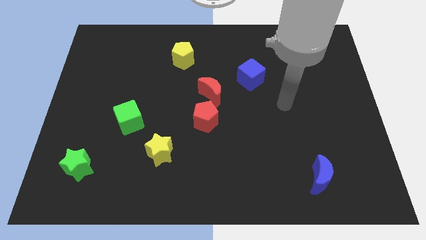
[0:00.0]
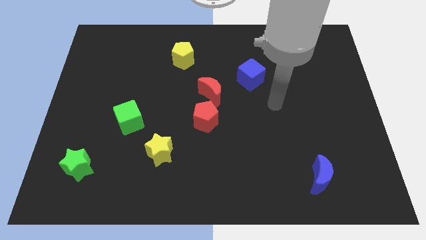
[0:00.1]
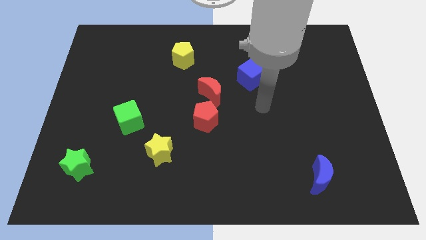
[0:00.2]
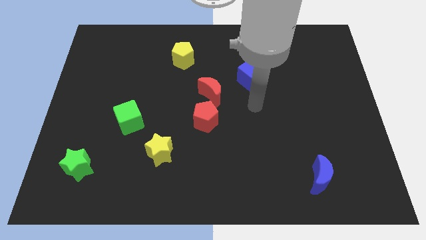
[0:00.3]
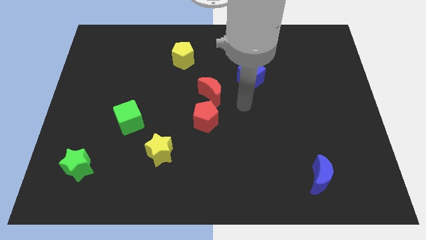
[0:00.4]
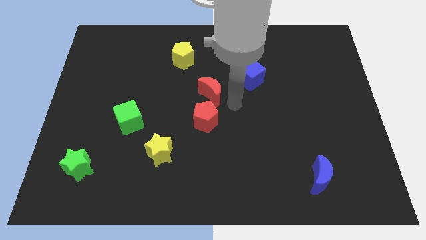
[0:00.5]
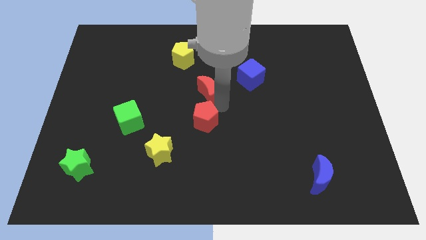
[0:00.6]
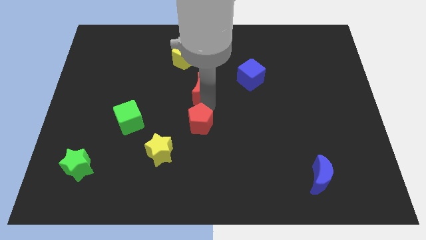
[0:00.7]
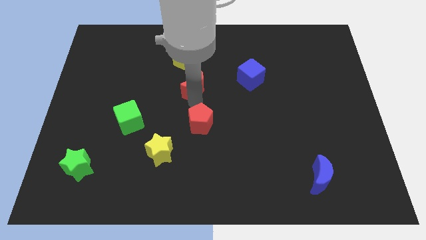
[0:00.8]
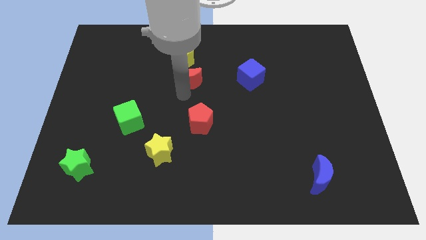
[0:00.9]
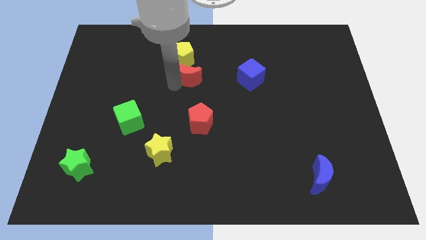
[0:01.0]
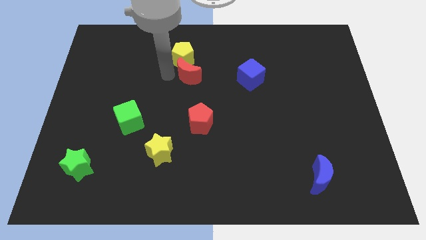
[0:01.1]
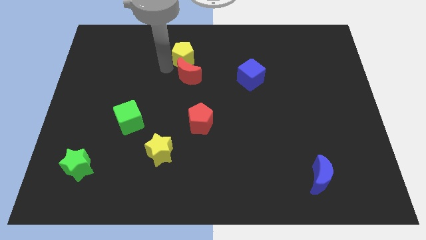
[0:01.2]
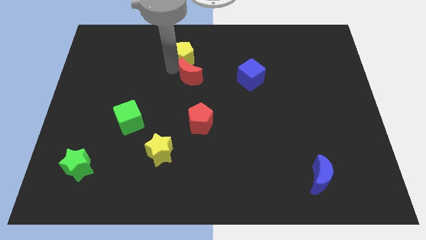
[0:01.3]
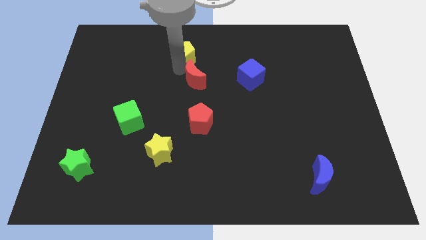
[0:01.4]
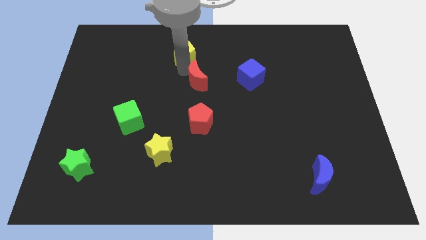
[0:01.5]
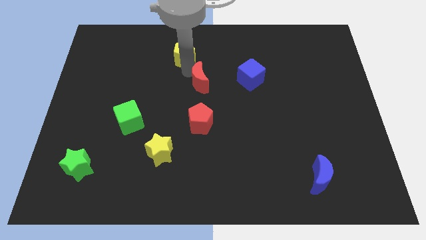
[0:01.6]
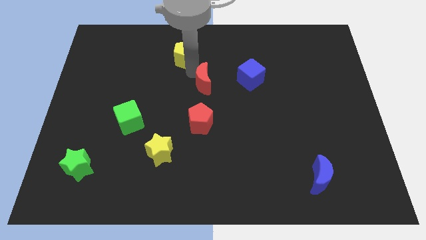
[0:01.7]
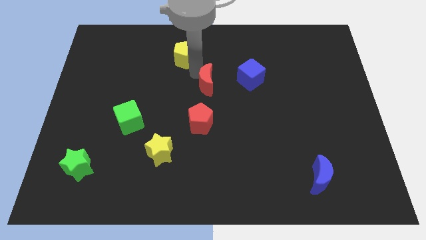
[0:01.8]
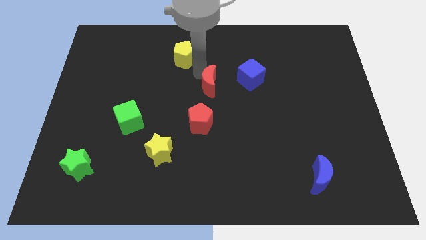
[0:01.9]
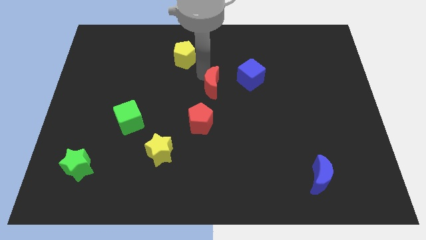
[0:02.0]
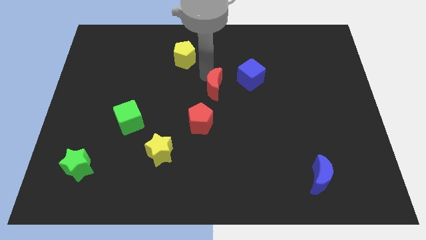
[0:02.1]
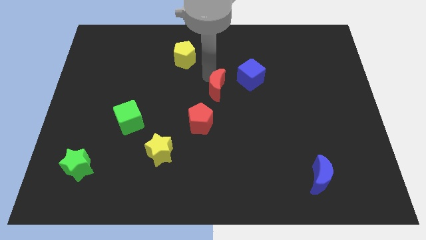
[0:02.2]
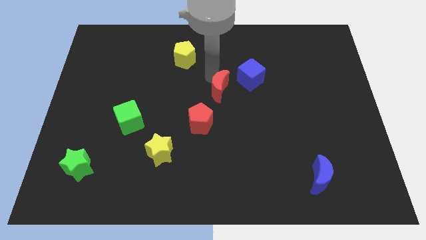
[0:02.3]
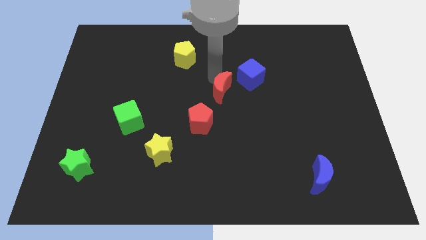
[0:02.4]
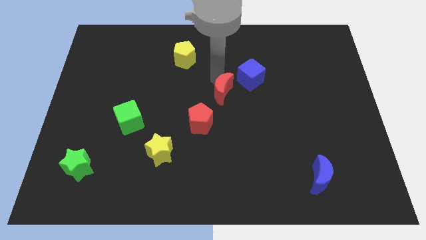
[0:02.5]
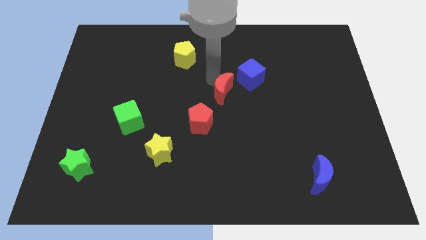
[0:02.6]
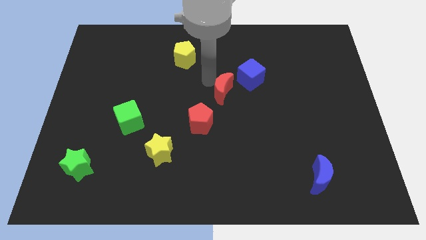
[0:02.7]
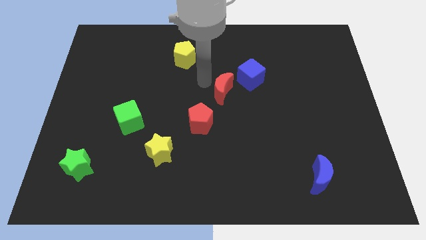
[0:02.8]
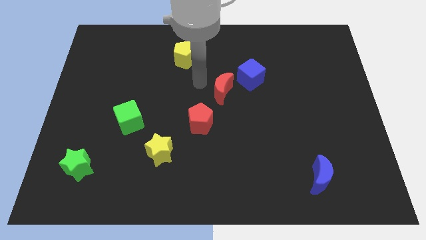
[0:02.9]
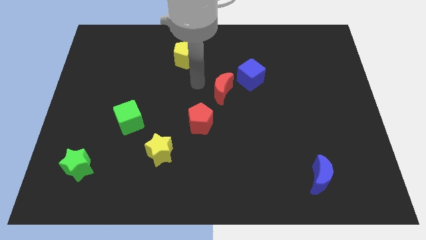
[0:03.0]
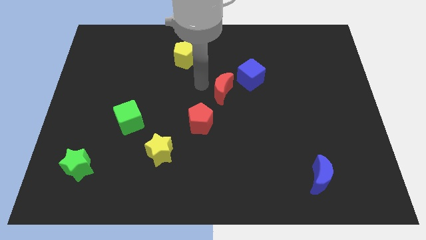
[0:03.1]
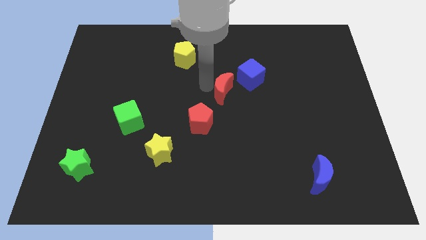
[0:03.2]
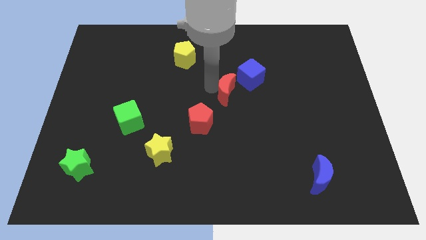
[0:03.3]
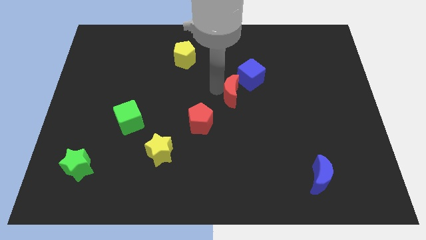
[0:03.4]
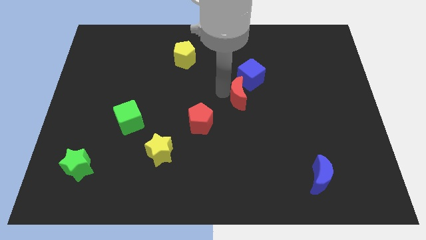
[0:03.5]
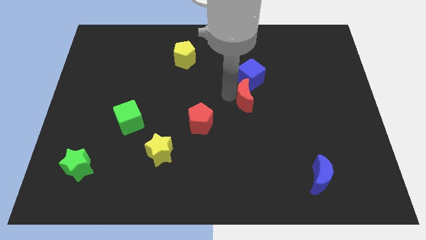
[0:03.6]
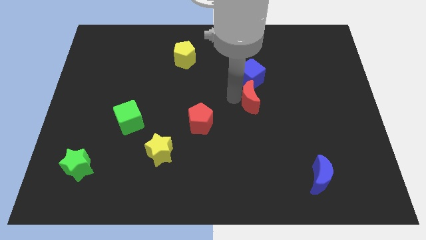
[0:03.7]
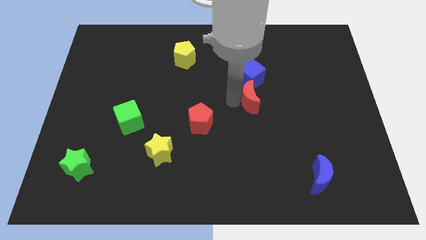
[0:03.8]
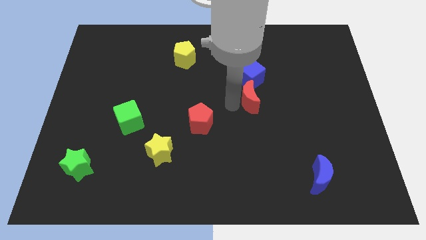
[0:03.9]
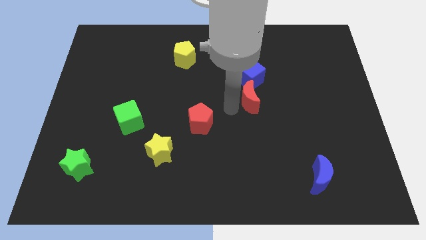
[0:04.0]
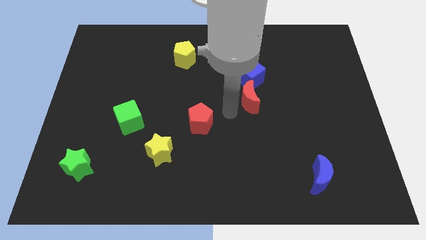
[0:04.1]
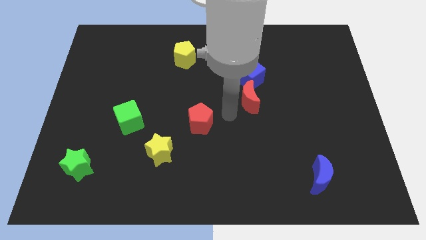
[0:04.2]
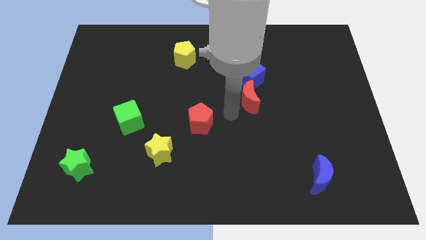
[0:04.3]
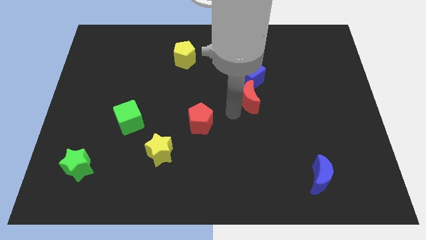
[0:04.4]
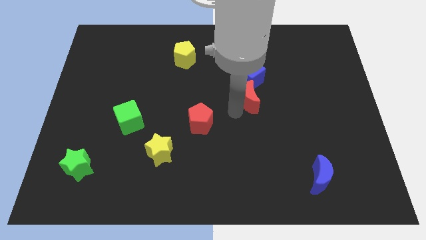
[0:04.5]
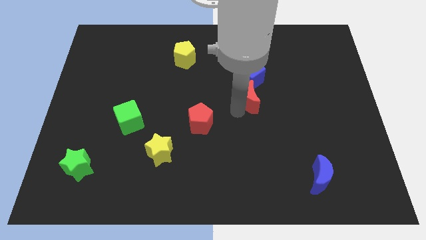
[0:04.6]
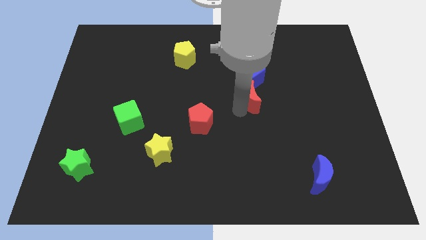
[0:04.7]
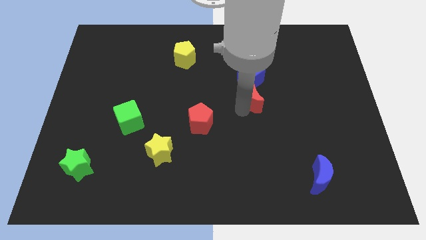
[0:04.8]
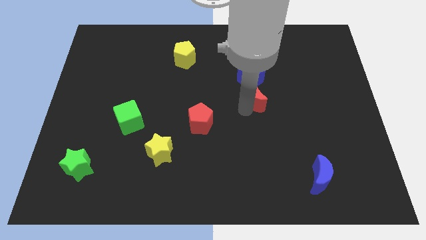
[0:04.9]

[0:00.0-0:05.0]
push the red moon to the bottom right of the blue cube

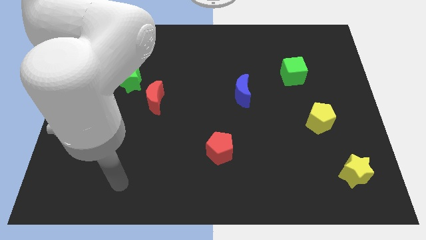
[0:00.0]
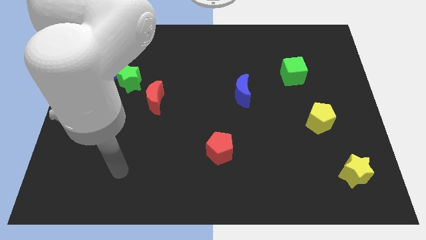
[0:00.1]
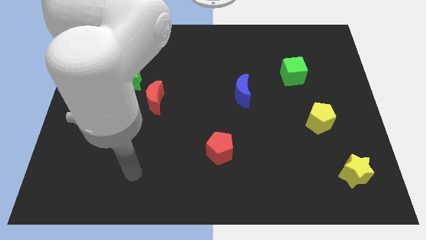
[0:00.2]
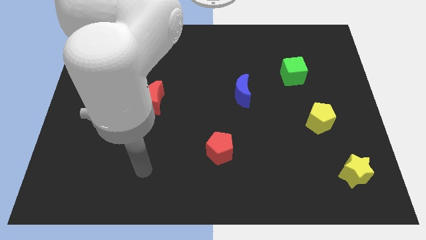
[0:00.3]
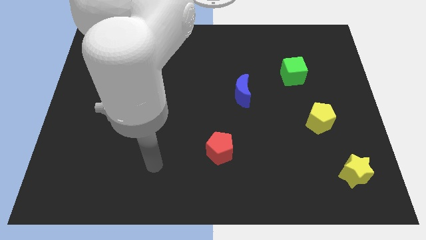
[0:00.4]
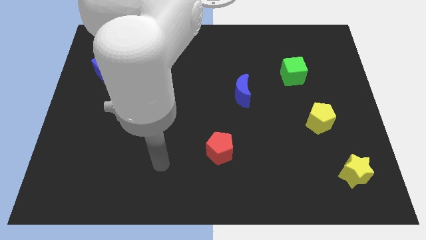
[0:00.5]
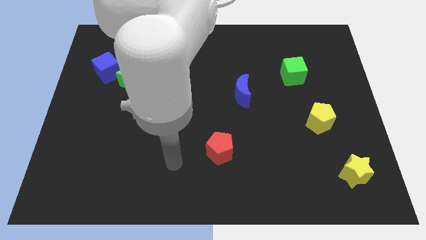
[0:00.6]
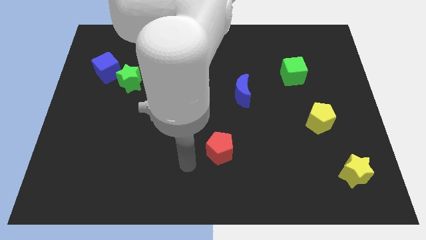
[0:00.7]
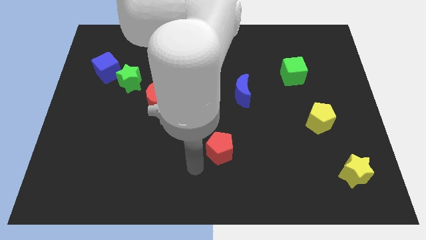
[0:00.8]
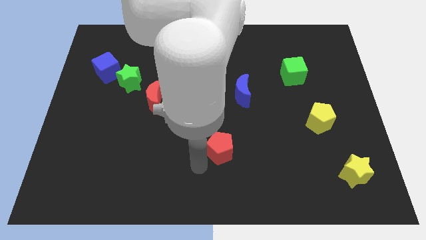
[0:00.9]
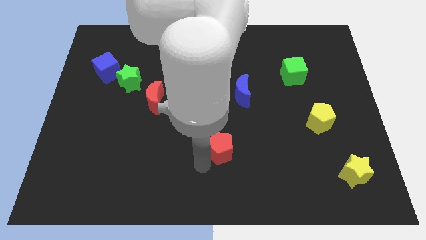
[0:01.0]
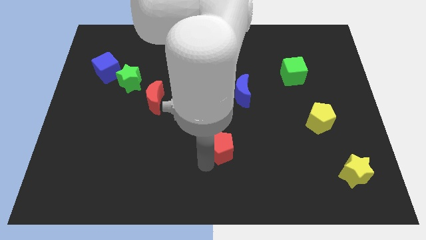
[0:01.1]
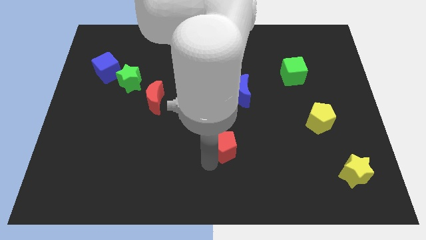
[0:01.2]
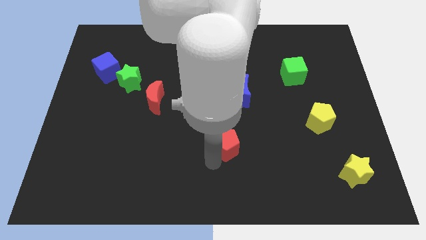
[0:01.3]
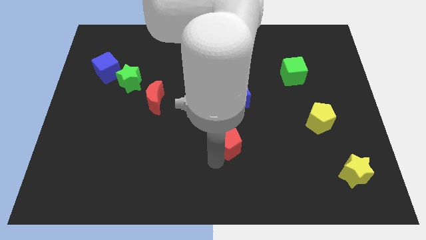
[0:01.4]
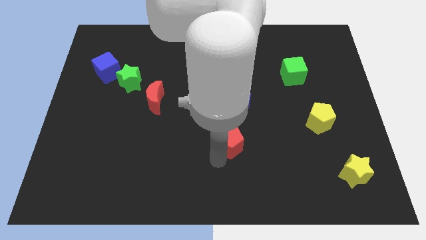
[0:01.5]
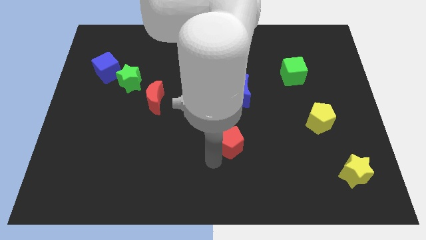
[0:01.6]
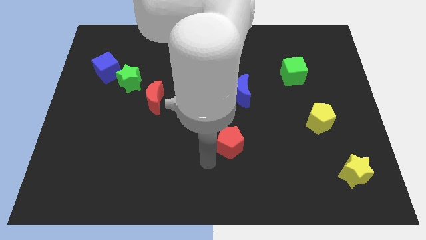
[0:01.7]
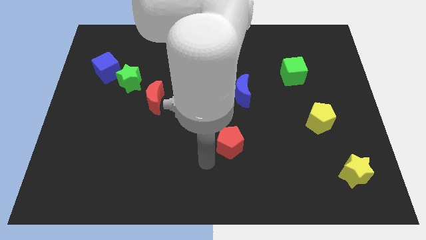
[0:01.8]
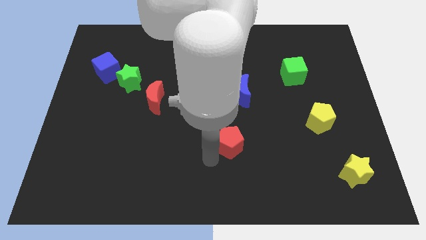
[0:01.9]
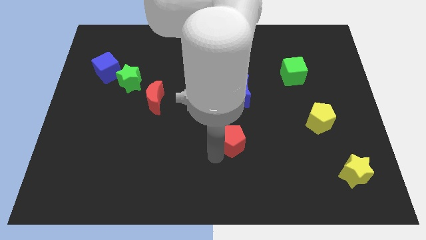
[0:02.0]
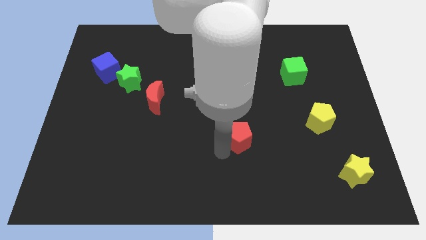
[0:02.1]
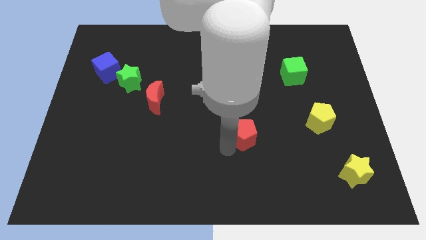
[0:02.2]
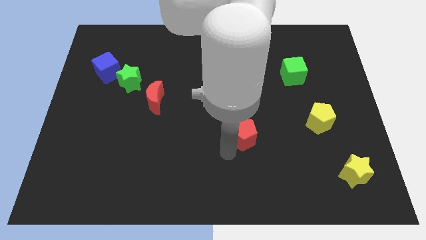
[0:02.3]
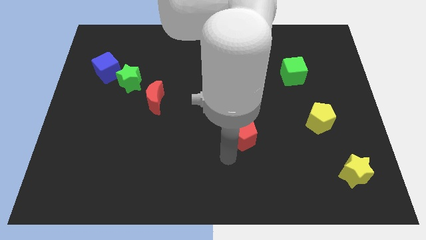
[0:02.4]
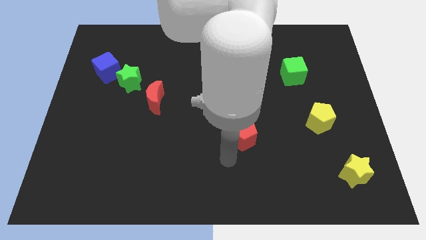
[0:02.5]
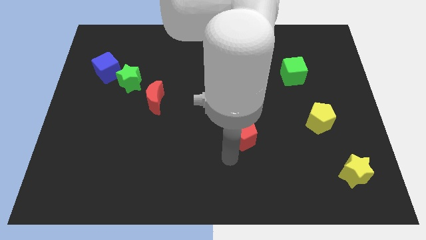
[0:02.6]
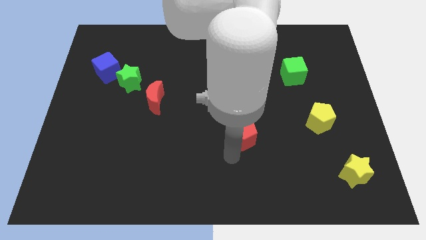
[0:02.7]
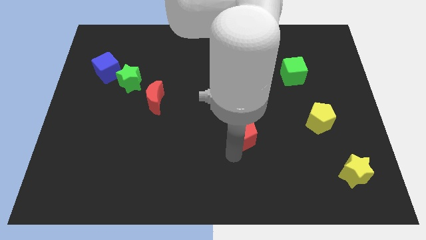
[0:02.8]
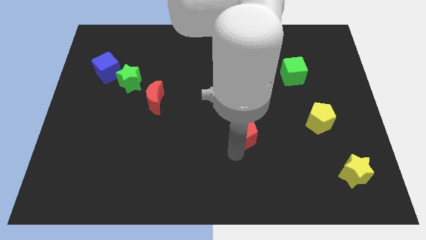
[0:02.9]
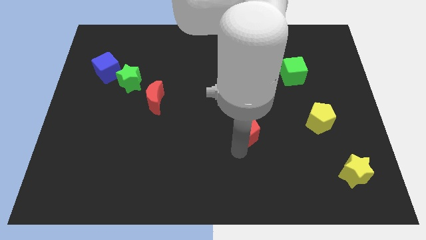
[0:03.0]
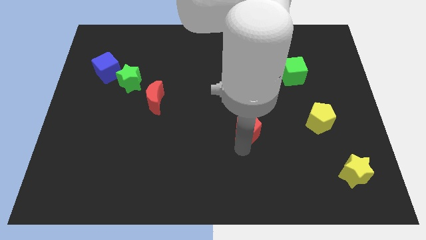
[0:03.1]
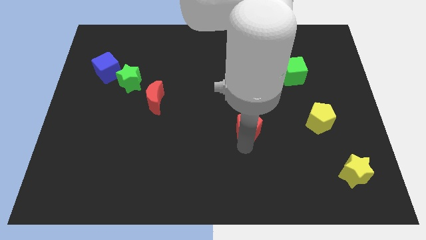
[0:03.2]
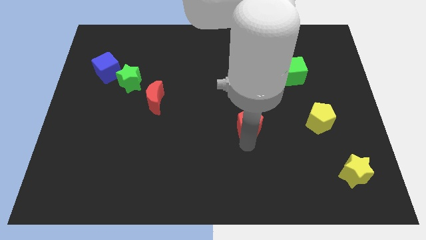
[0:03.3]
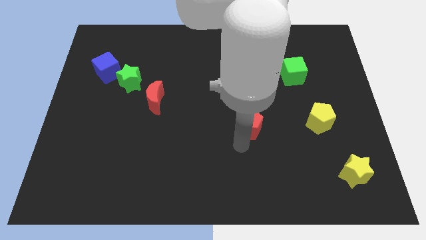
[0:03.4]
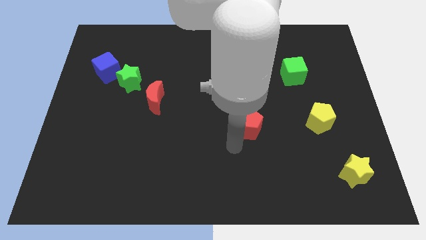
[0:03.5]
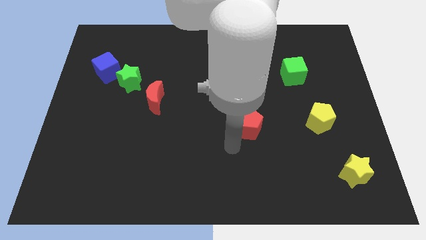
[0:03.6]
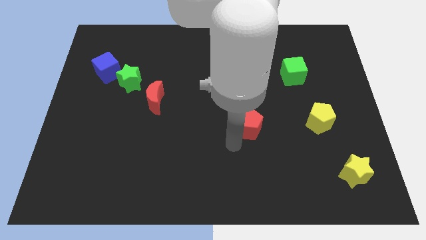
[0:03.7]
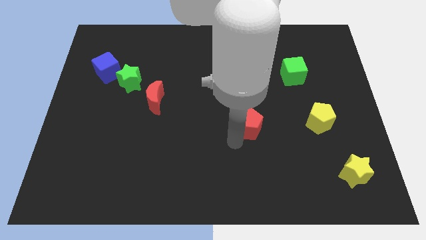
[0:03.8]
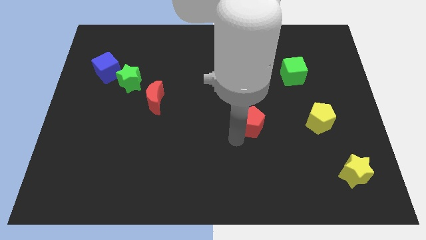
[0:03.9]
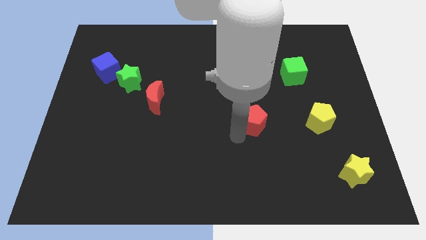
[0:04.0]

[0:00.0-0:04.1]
slide the red pentagon diagonally down and to the right of the blue moon
